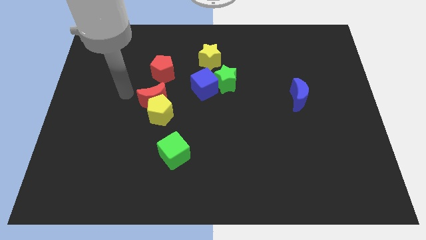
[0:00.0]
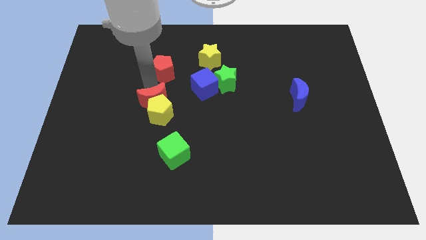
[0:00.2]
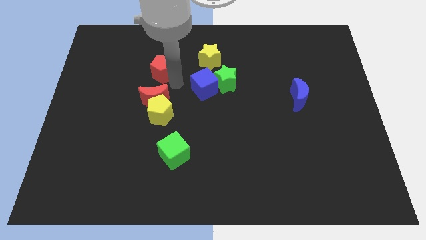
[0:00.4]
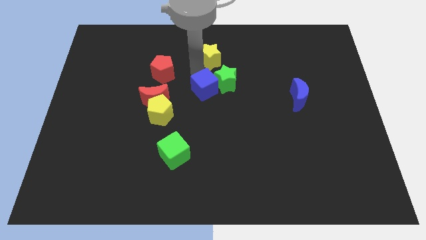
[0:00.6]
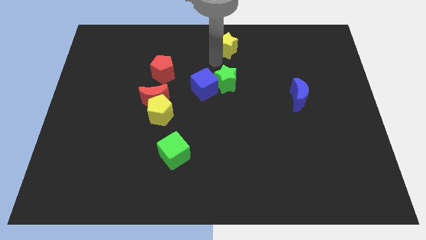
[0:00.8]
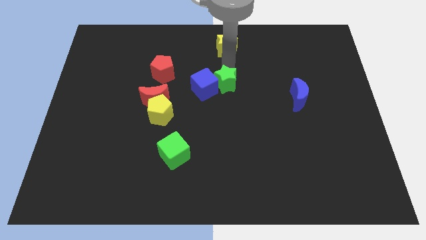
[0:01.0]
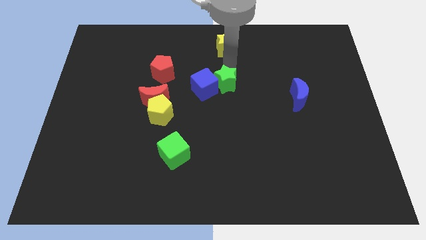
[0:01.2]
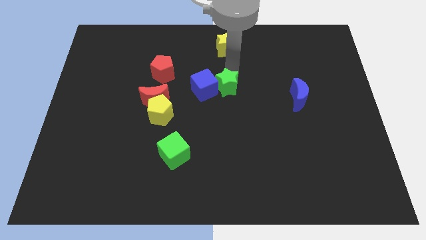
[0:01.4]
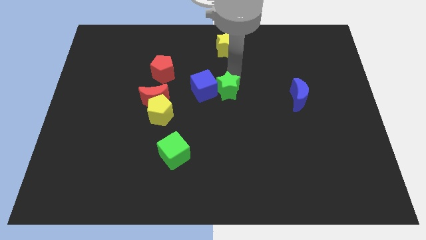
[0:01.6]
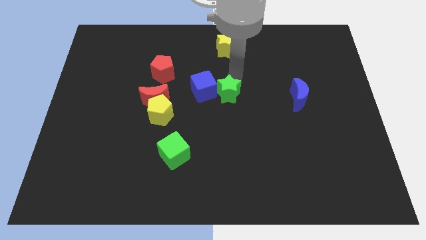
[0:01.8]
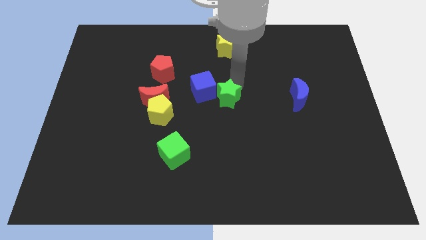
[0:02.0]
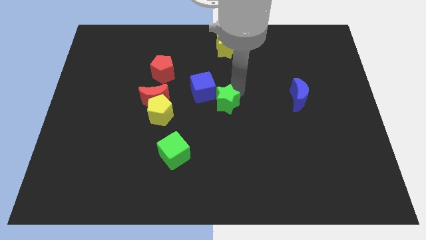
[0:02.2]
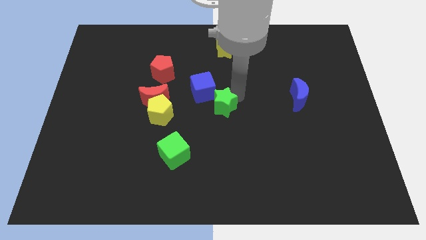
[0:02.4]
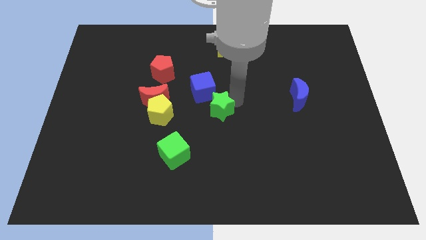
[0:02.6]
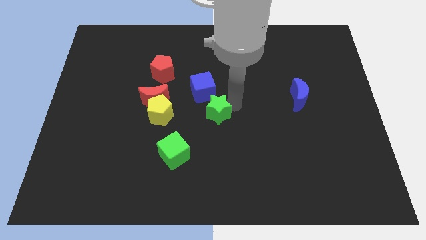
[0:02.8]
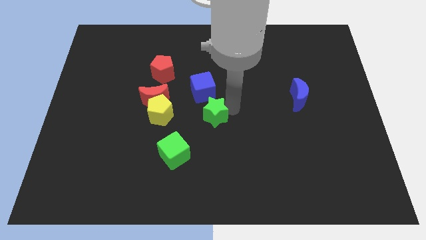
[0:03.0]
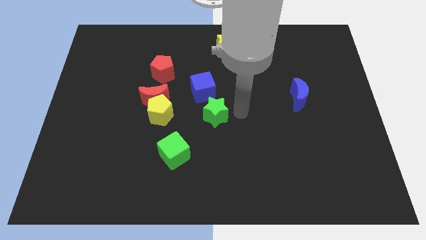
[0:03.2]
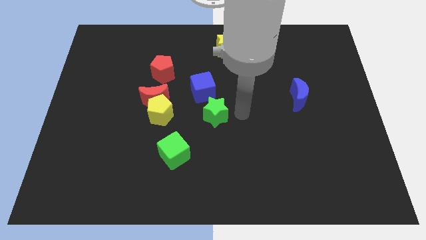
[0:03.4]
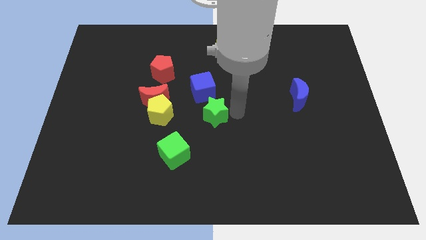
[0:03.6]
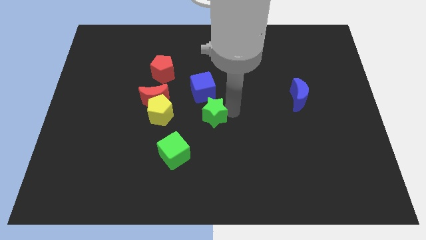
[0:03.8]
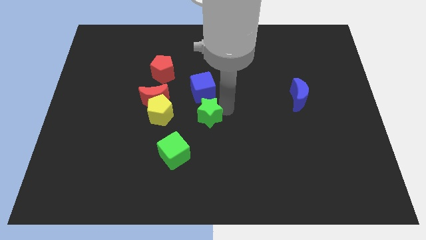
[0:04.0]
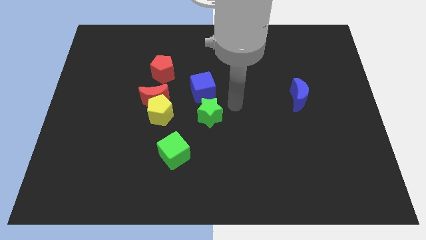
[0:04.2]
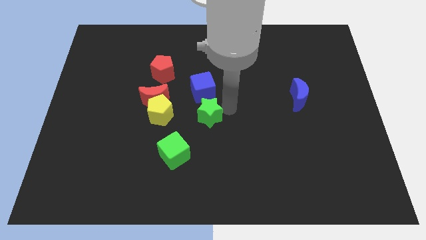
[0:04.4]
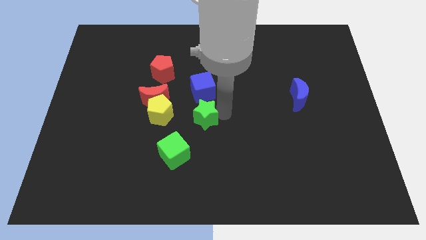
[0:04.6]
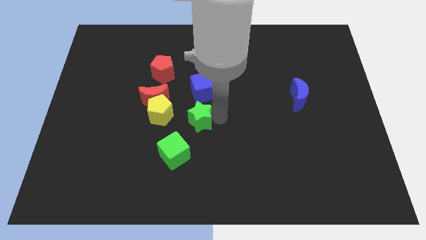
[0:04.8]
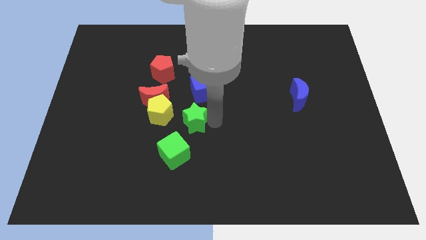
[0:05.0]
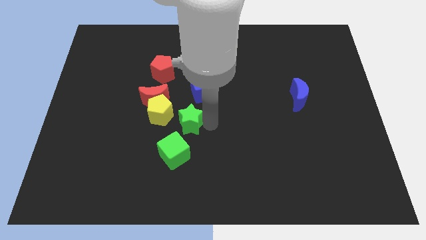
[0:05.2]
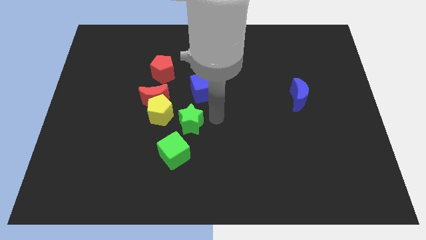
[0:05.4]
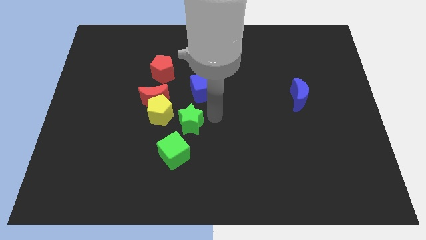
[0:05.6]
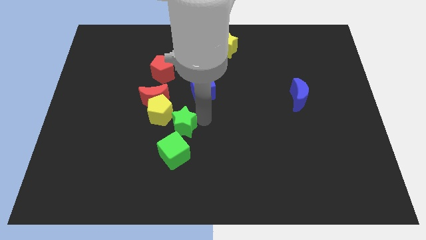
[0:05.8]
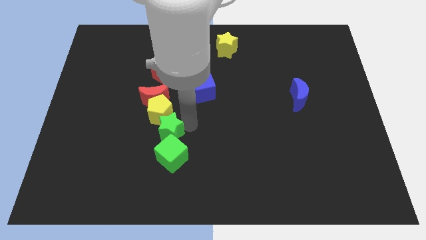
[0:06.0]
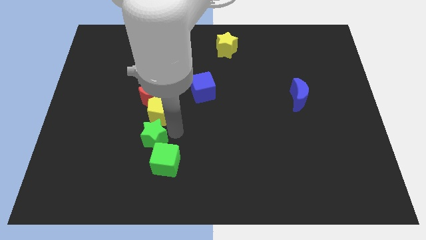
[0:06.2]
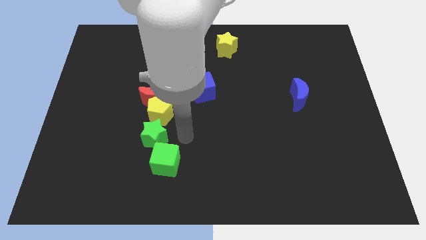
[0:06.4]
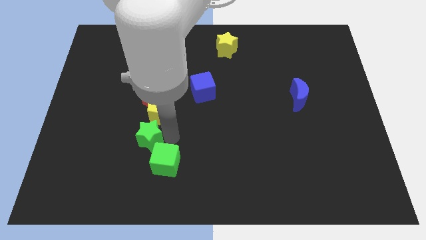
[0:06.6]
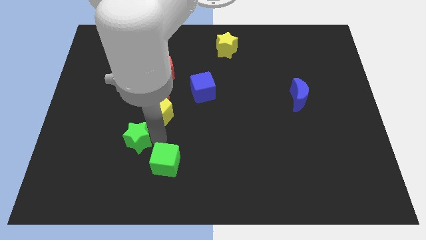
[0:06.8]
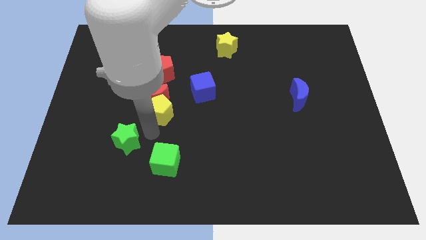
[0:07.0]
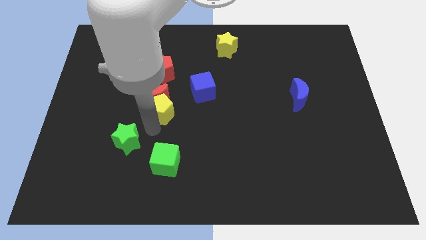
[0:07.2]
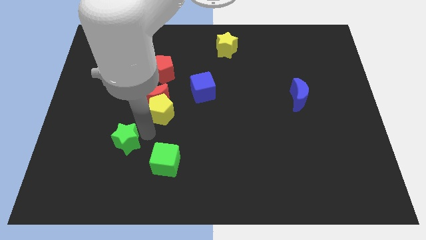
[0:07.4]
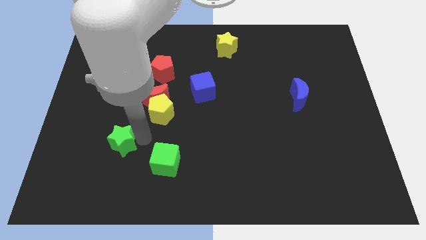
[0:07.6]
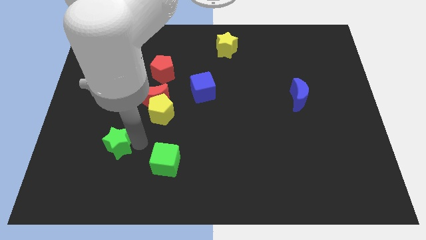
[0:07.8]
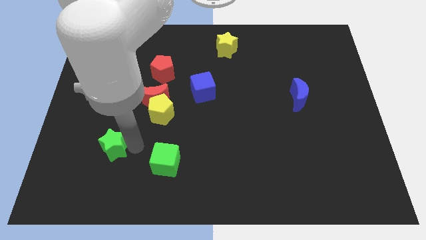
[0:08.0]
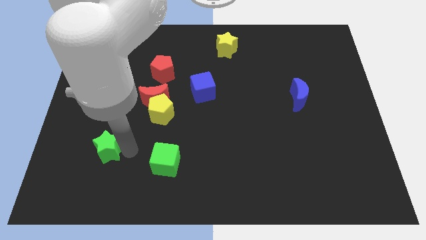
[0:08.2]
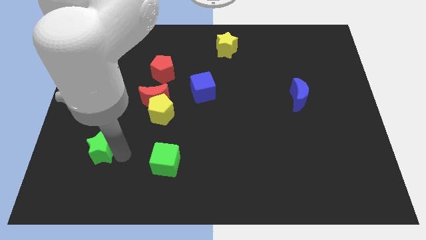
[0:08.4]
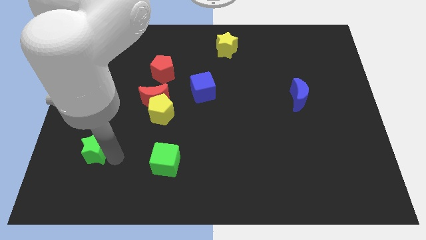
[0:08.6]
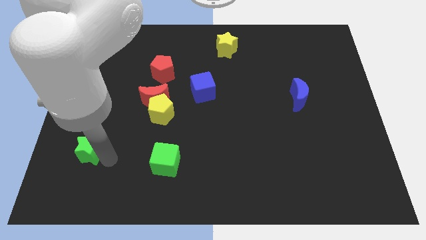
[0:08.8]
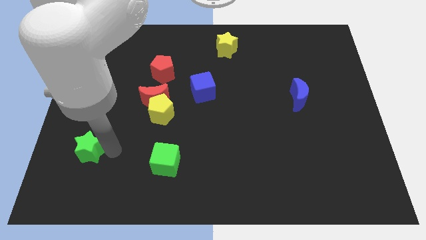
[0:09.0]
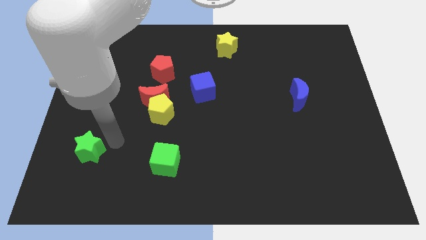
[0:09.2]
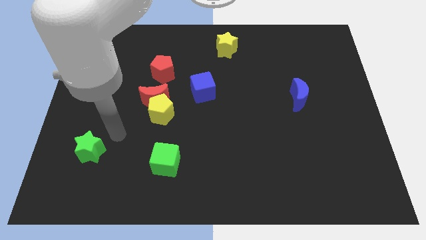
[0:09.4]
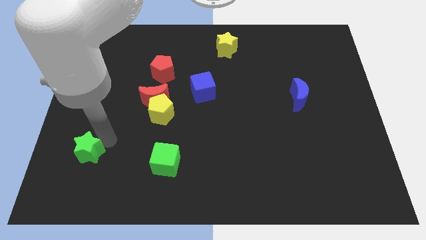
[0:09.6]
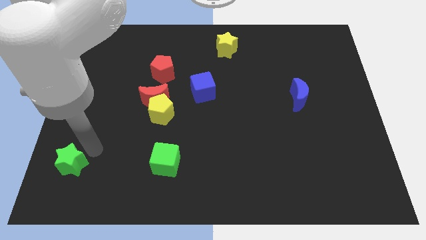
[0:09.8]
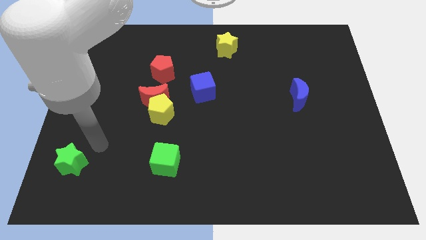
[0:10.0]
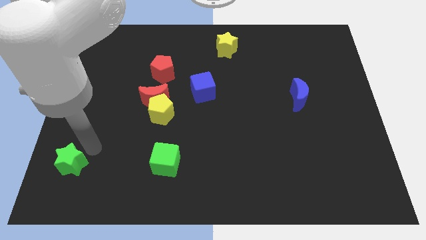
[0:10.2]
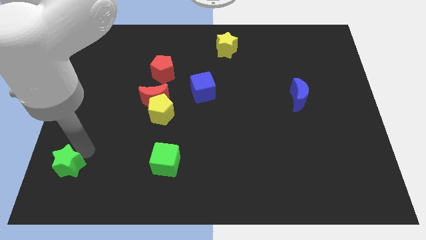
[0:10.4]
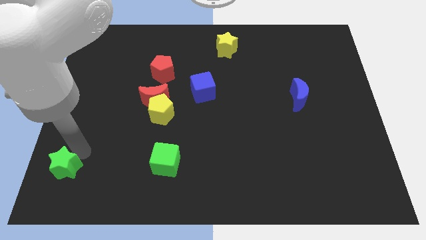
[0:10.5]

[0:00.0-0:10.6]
slide the green star to the lower left corner
